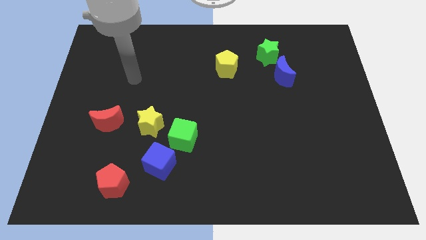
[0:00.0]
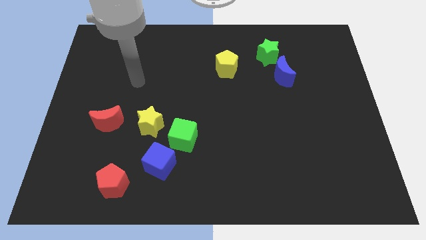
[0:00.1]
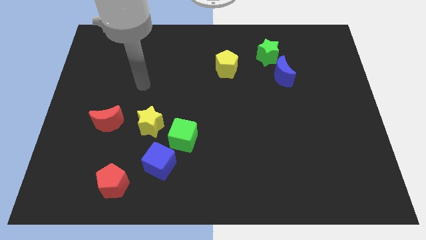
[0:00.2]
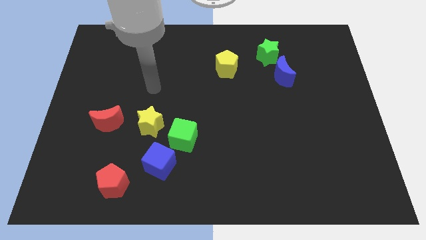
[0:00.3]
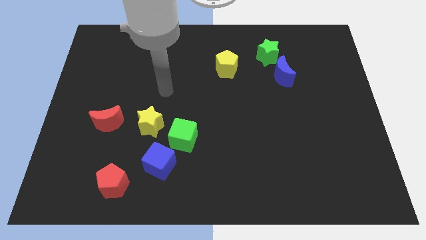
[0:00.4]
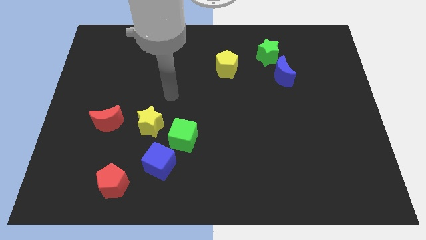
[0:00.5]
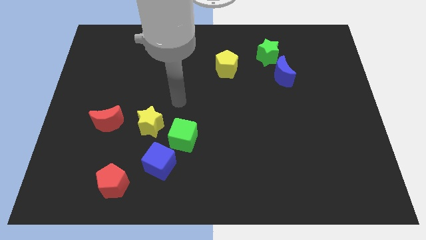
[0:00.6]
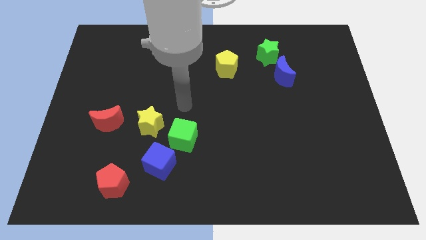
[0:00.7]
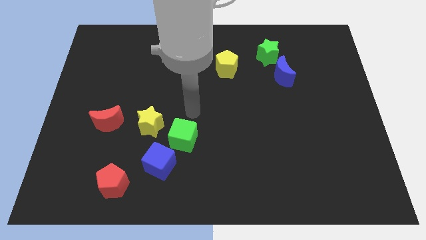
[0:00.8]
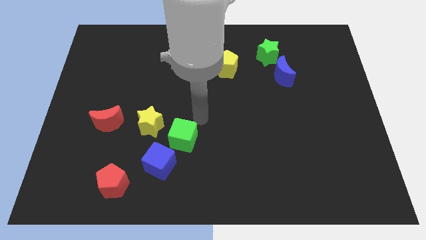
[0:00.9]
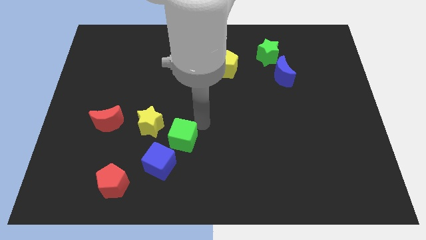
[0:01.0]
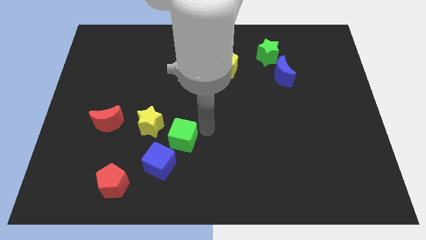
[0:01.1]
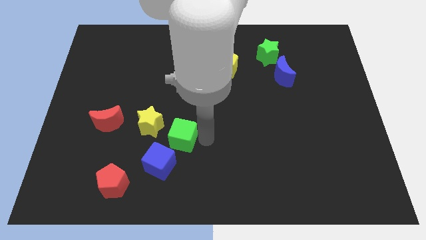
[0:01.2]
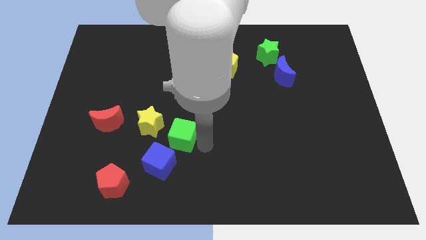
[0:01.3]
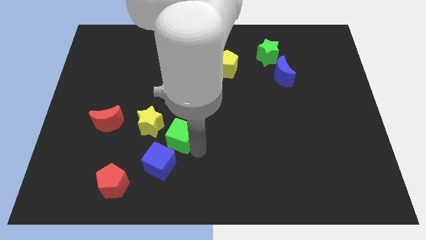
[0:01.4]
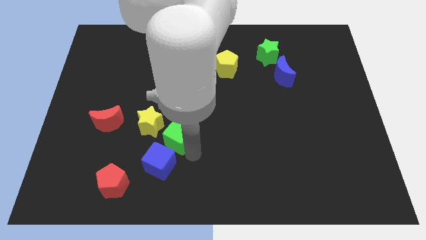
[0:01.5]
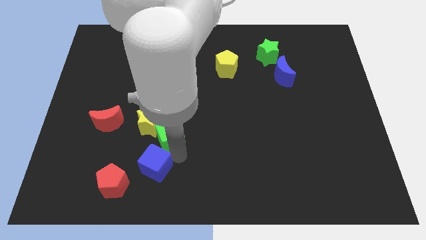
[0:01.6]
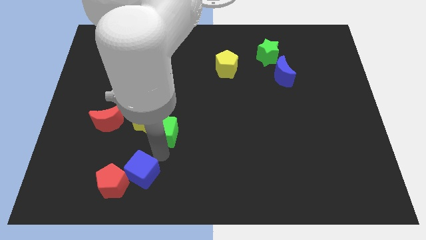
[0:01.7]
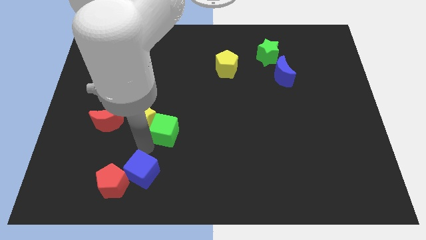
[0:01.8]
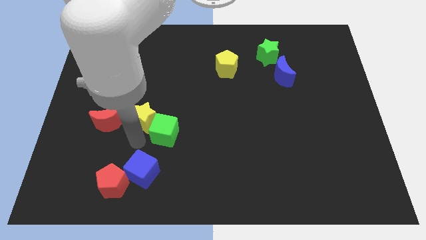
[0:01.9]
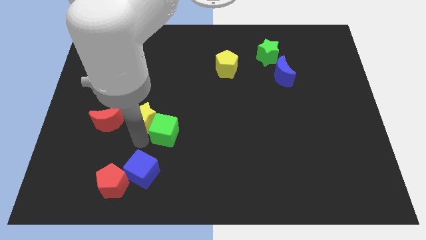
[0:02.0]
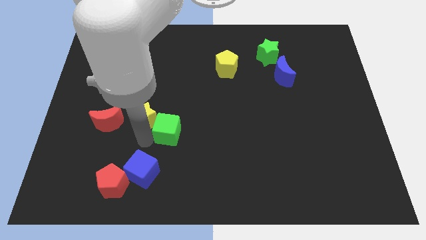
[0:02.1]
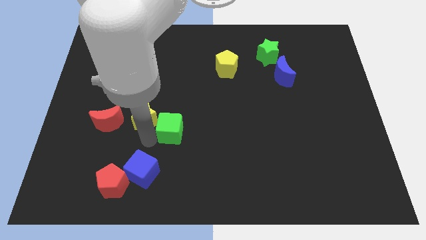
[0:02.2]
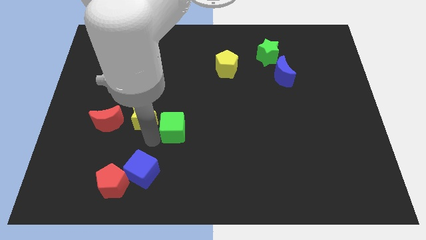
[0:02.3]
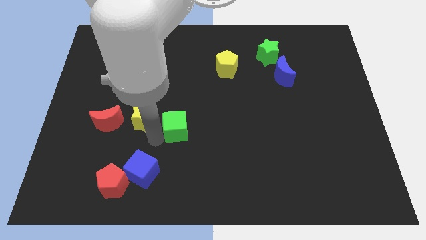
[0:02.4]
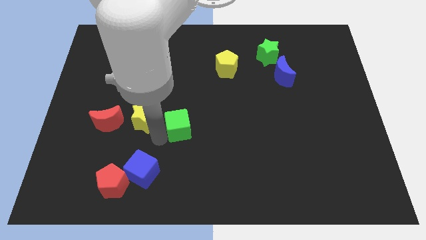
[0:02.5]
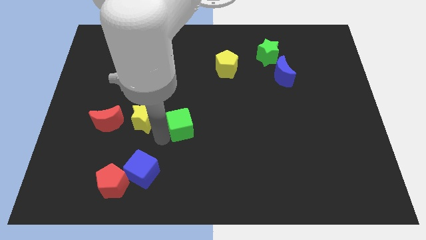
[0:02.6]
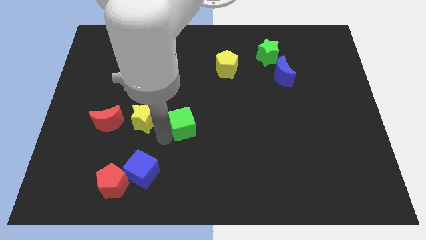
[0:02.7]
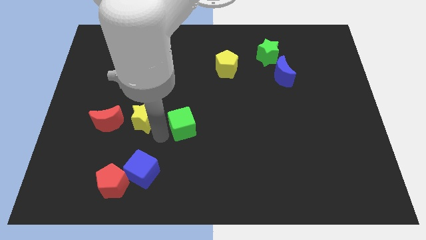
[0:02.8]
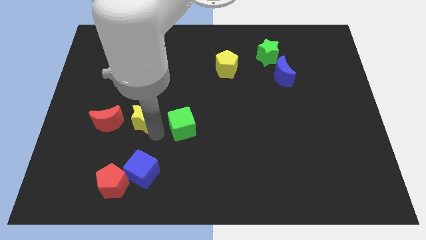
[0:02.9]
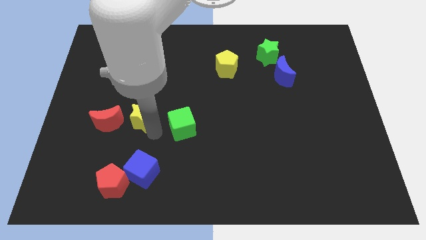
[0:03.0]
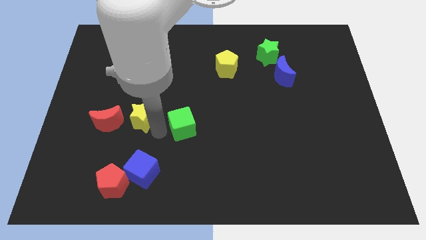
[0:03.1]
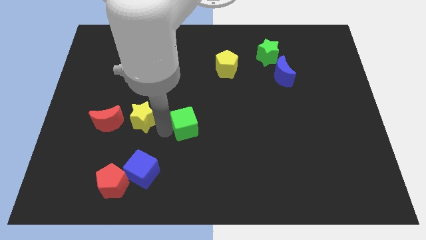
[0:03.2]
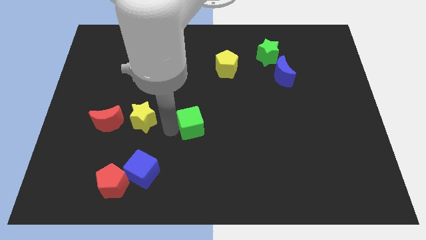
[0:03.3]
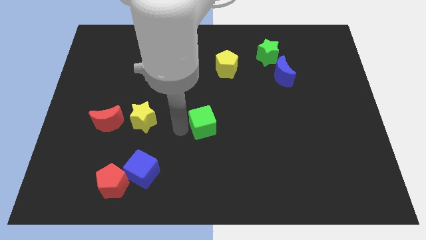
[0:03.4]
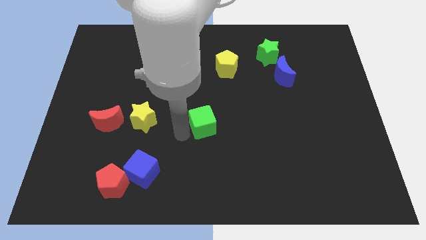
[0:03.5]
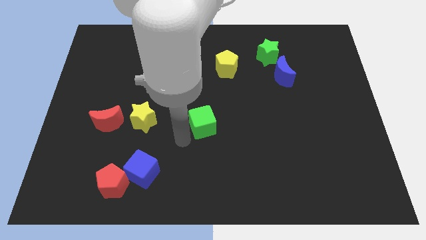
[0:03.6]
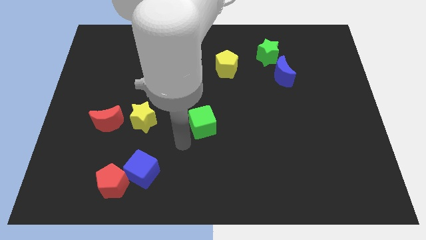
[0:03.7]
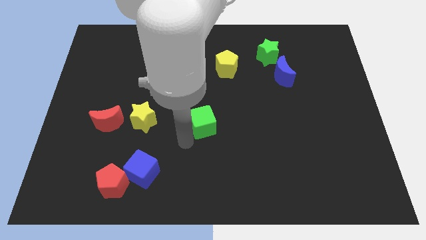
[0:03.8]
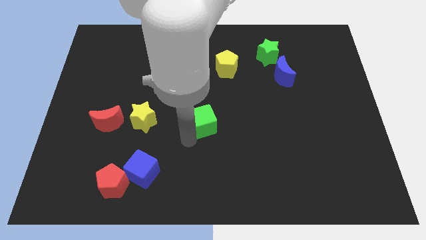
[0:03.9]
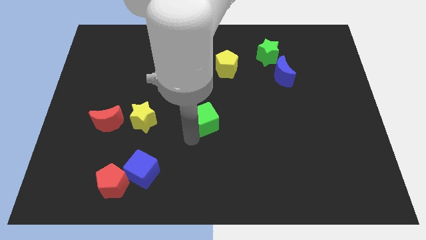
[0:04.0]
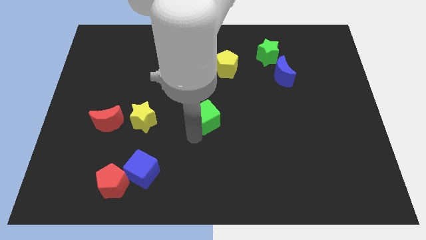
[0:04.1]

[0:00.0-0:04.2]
slide the green cube a little bit upwards and right

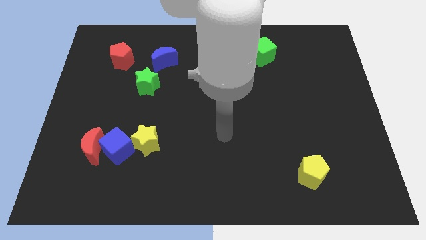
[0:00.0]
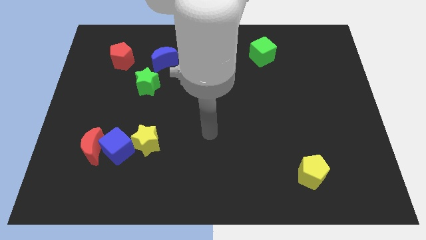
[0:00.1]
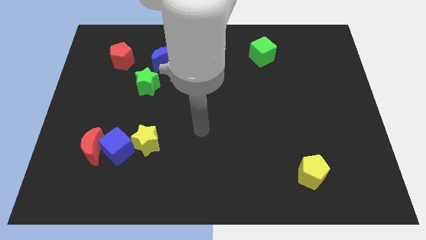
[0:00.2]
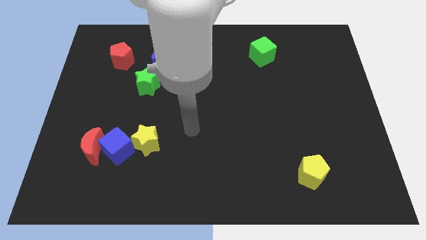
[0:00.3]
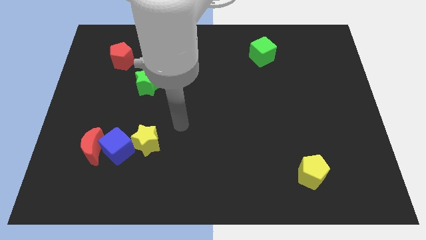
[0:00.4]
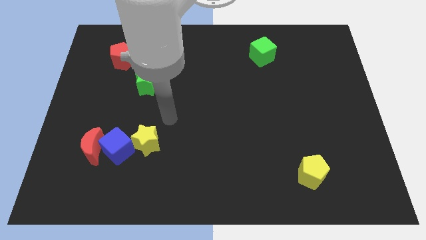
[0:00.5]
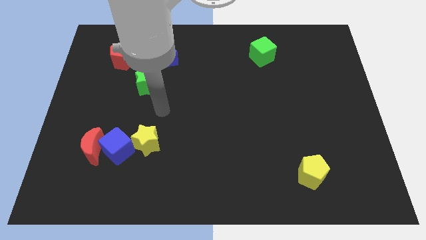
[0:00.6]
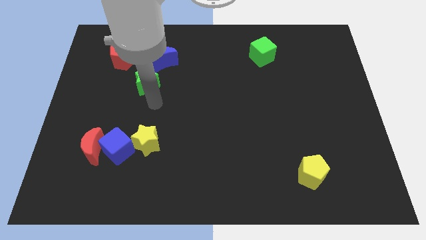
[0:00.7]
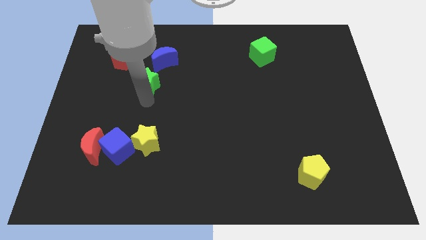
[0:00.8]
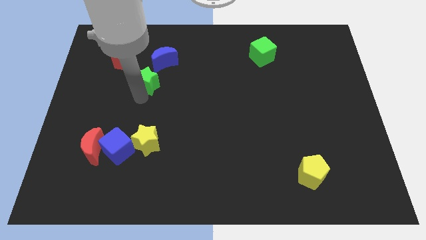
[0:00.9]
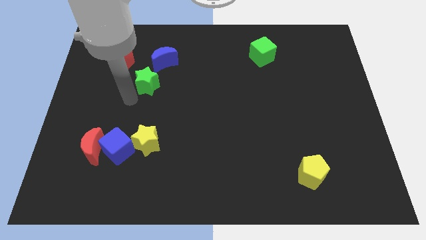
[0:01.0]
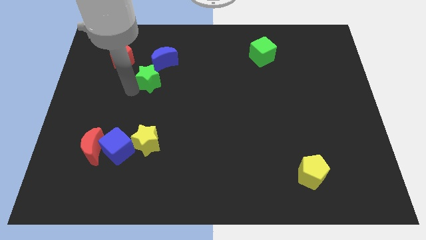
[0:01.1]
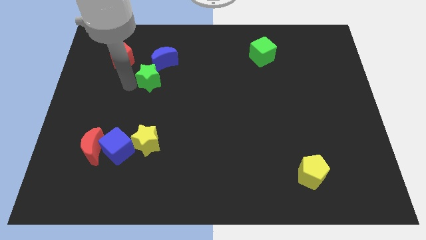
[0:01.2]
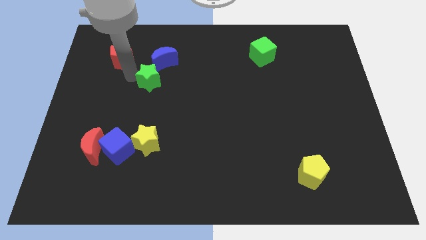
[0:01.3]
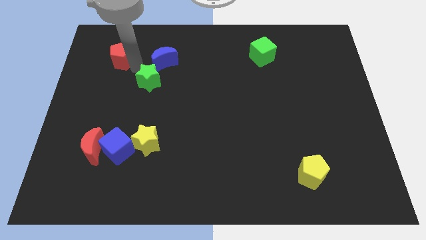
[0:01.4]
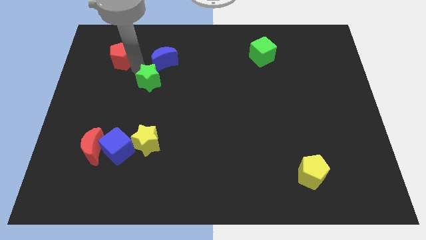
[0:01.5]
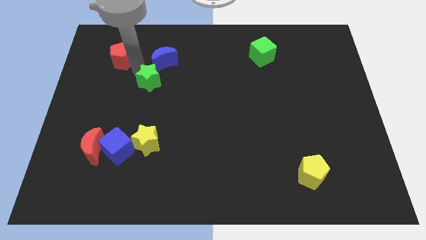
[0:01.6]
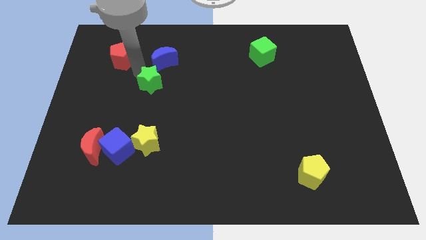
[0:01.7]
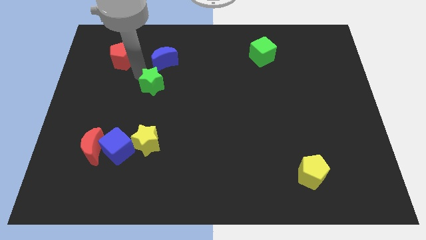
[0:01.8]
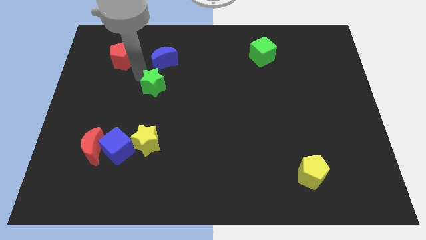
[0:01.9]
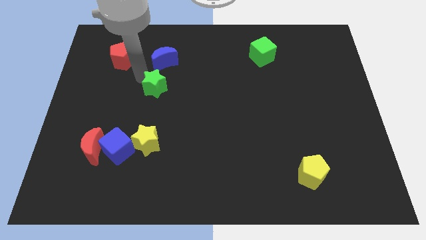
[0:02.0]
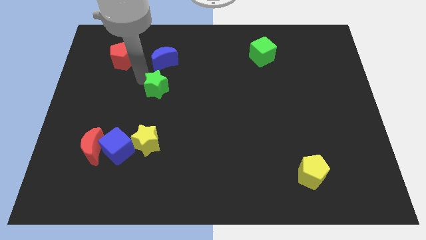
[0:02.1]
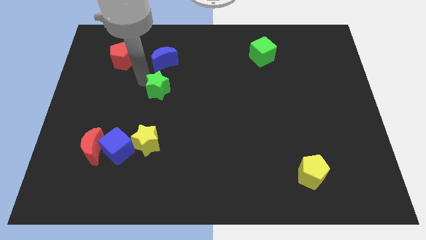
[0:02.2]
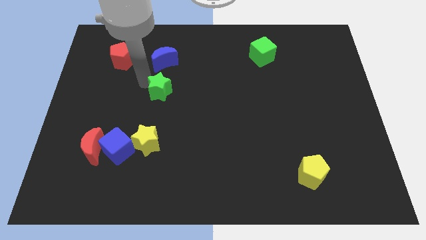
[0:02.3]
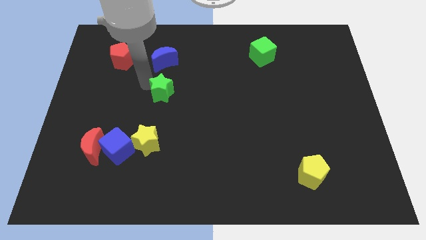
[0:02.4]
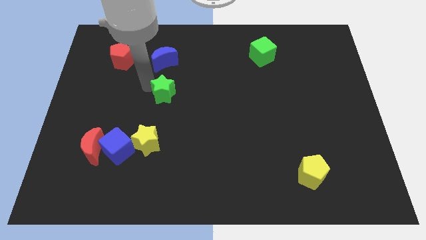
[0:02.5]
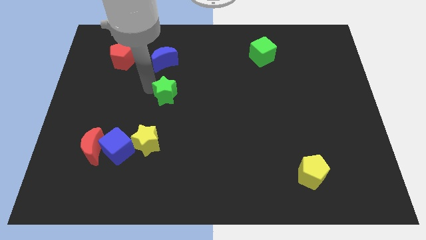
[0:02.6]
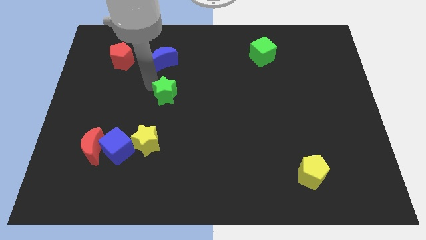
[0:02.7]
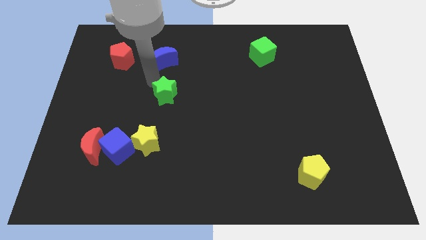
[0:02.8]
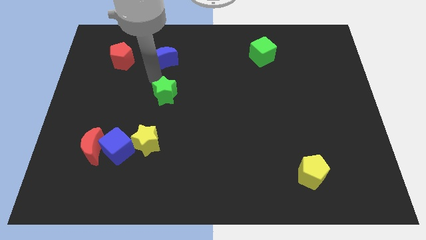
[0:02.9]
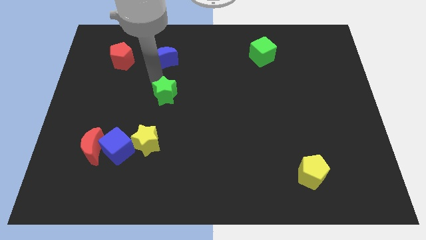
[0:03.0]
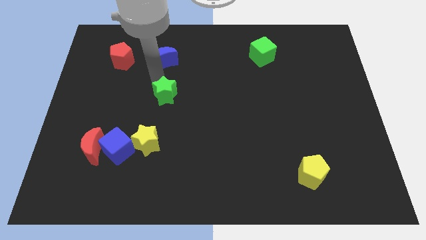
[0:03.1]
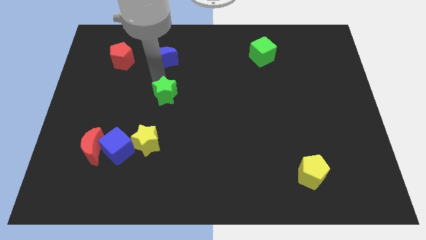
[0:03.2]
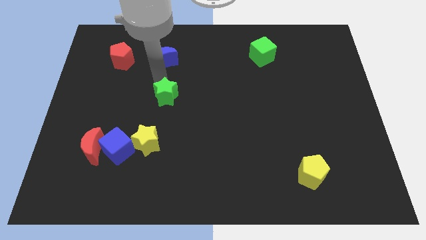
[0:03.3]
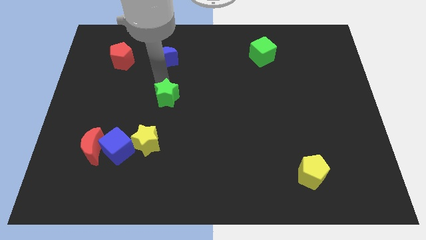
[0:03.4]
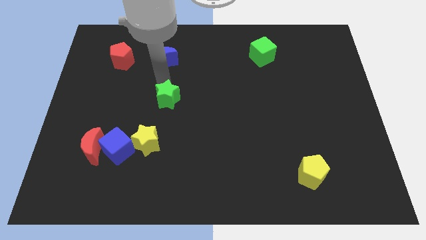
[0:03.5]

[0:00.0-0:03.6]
push the green star down and to the right a little
